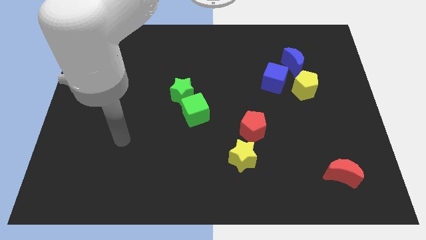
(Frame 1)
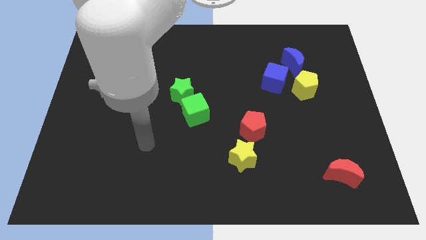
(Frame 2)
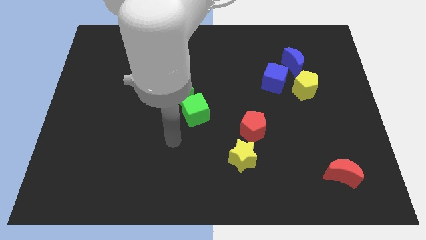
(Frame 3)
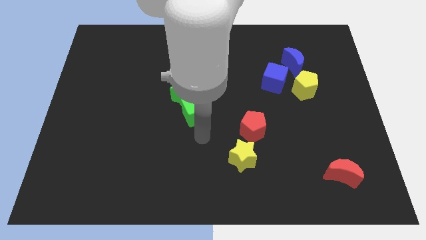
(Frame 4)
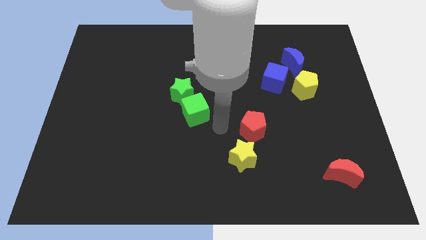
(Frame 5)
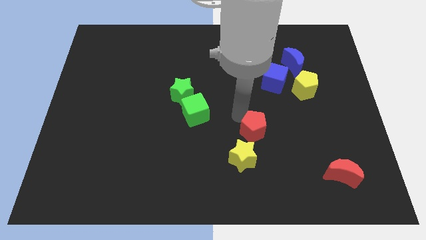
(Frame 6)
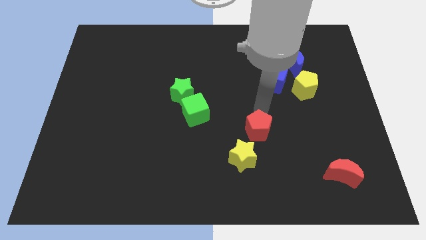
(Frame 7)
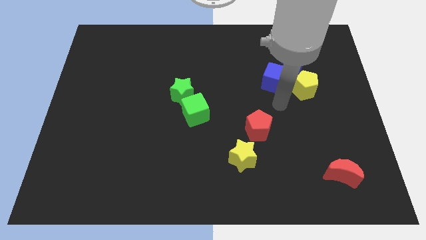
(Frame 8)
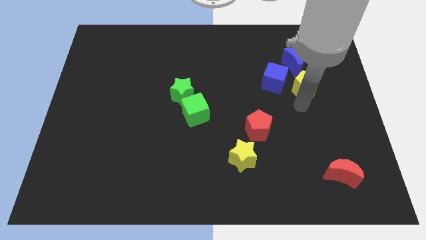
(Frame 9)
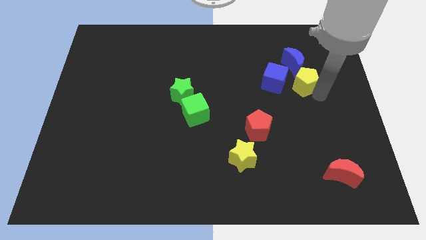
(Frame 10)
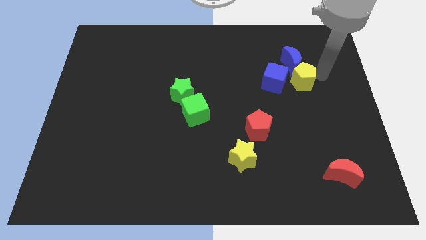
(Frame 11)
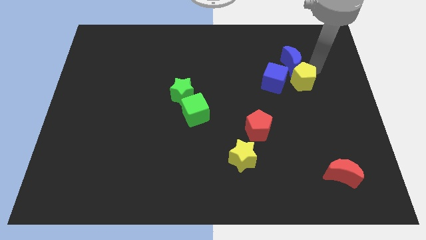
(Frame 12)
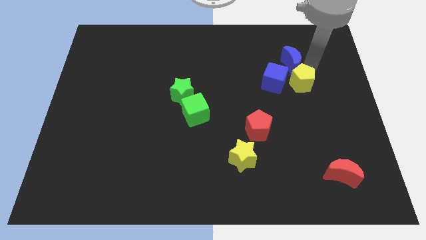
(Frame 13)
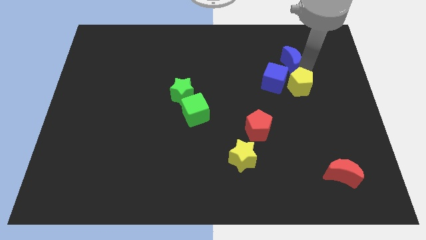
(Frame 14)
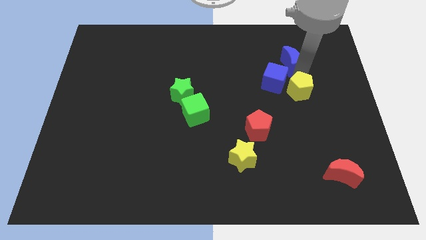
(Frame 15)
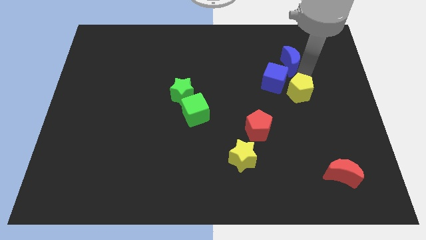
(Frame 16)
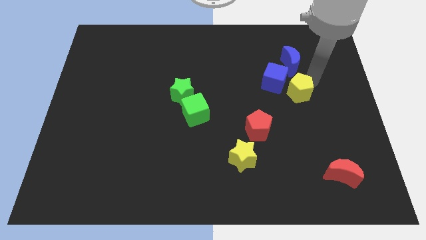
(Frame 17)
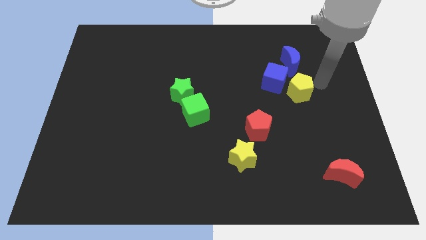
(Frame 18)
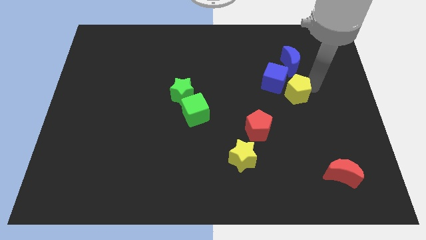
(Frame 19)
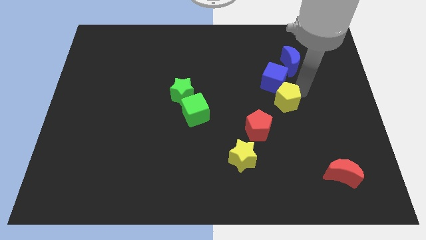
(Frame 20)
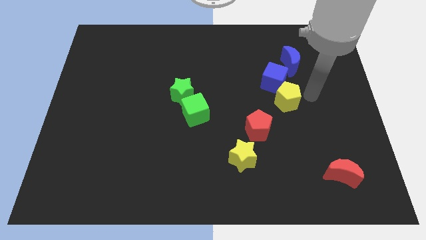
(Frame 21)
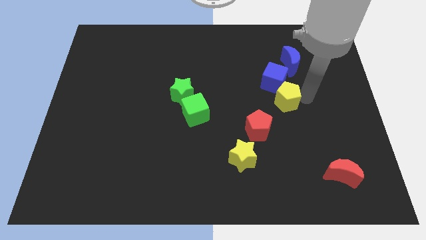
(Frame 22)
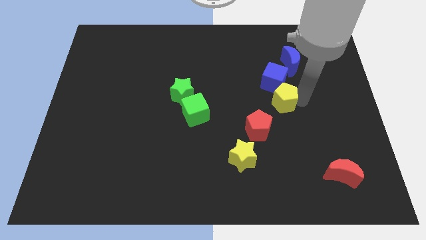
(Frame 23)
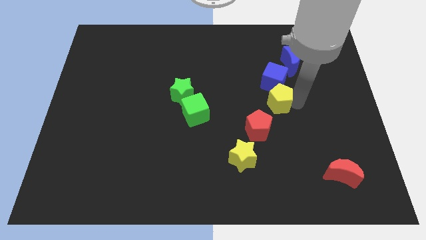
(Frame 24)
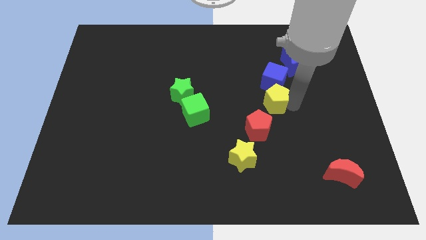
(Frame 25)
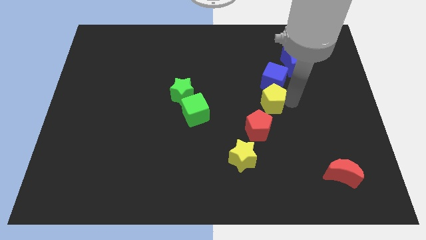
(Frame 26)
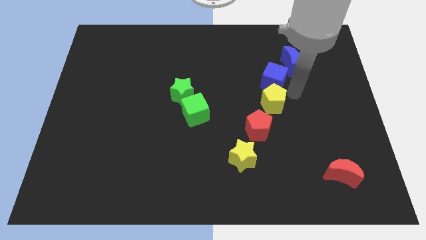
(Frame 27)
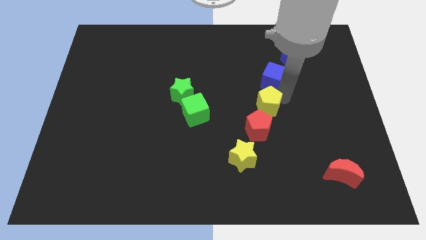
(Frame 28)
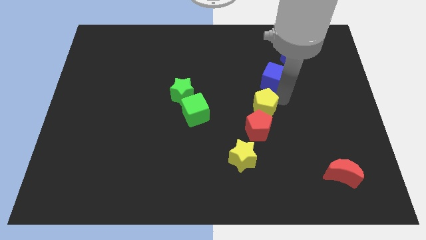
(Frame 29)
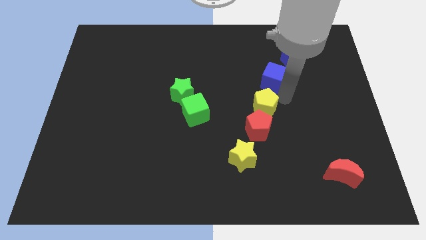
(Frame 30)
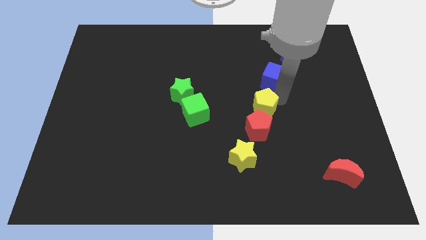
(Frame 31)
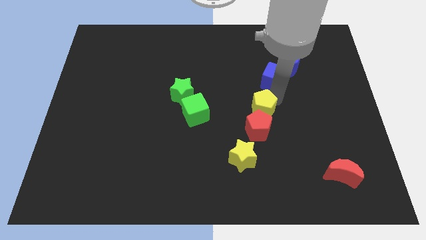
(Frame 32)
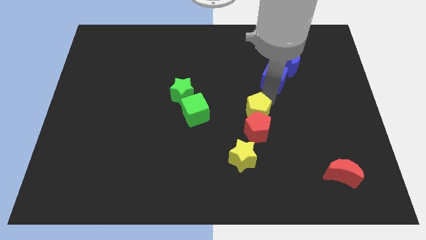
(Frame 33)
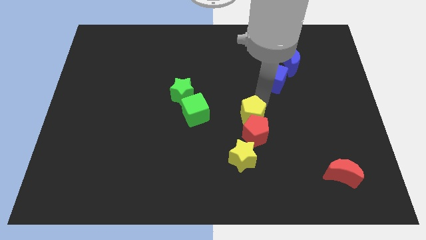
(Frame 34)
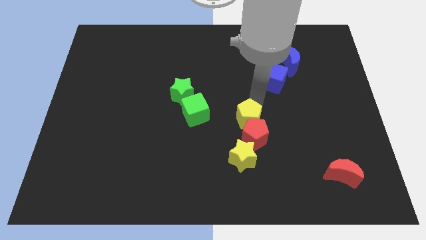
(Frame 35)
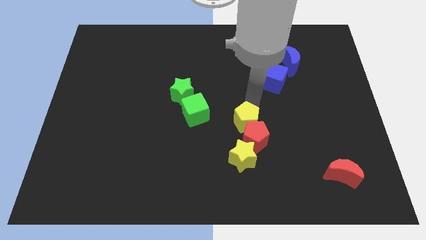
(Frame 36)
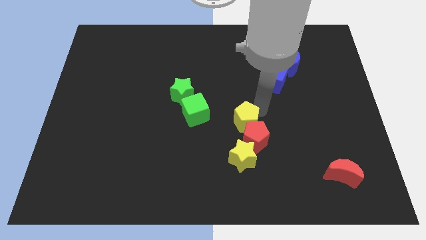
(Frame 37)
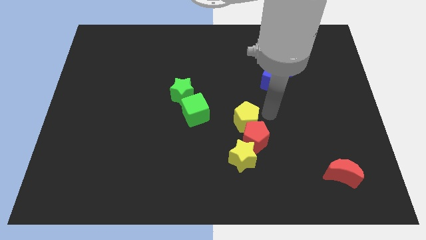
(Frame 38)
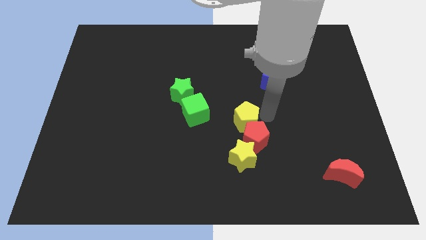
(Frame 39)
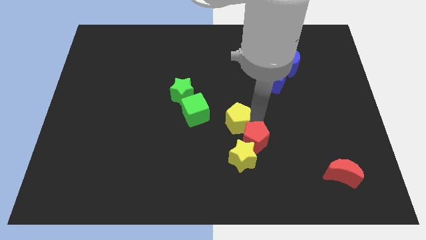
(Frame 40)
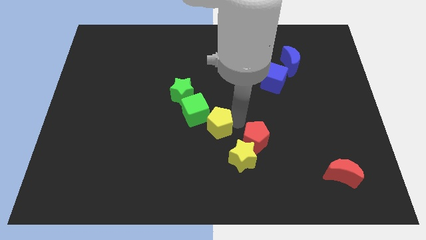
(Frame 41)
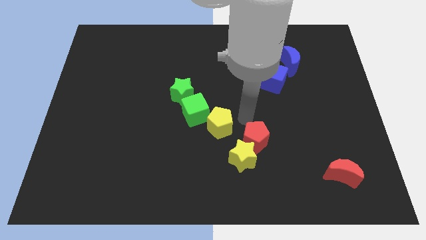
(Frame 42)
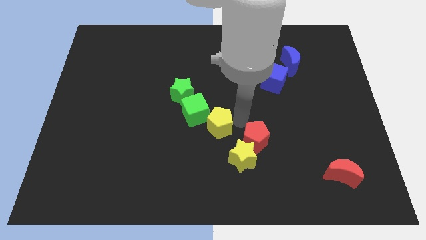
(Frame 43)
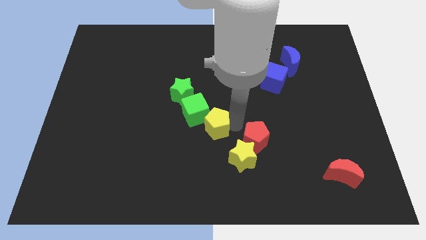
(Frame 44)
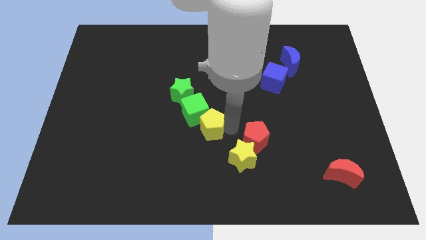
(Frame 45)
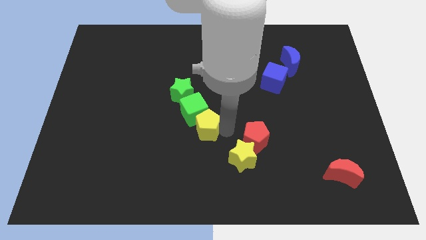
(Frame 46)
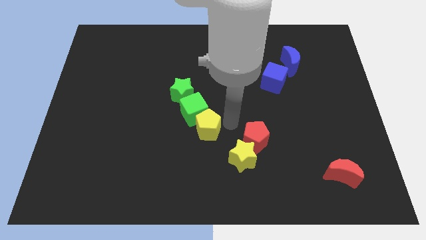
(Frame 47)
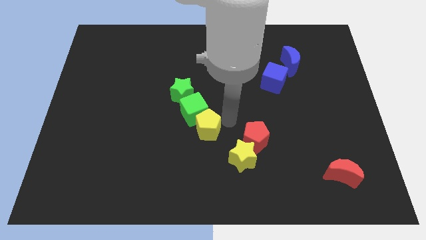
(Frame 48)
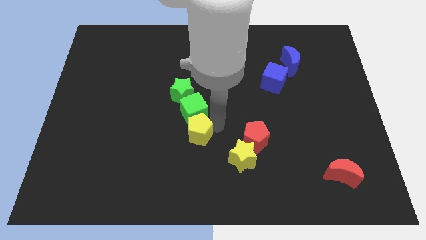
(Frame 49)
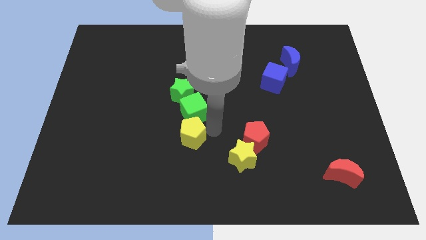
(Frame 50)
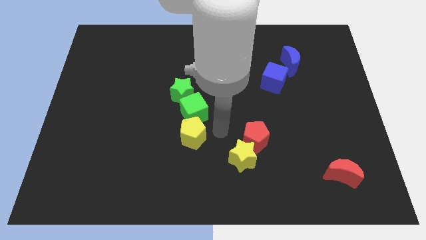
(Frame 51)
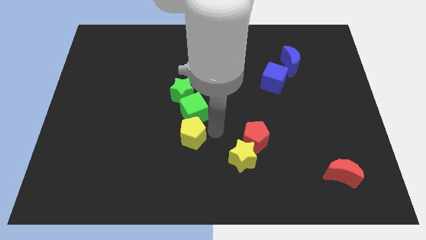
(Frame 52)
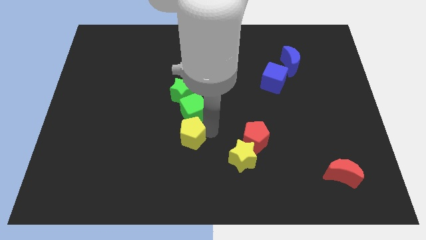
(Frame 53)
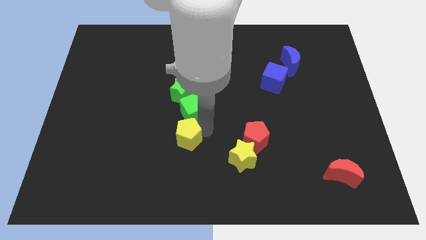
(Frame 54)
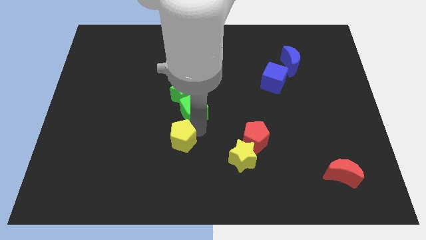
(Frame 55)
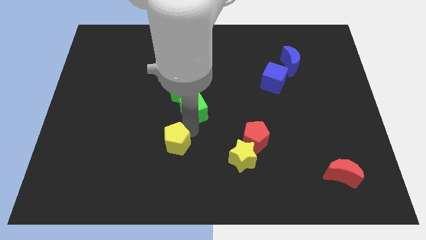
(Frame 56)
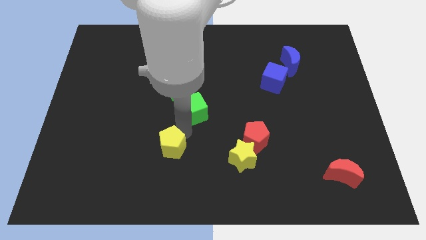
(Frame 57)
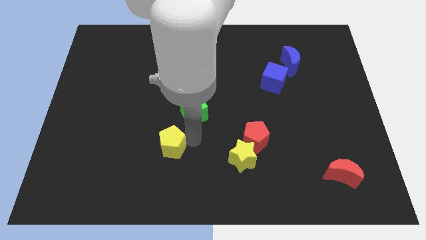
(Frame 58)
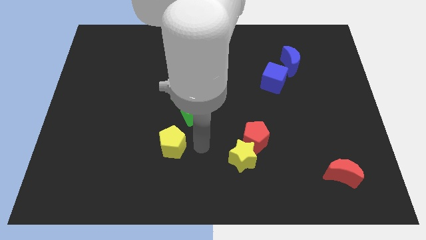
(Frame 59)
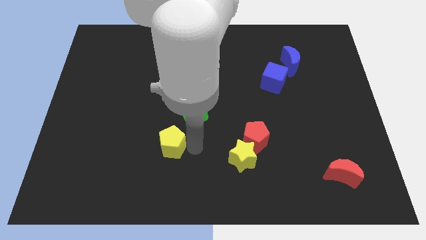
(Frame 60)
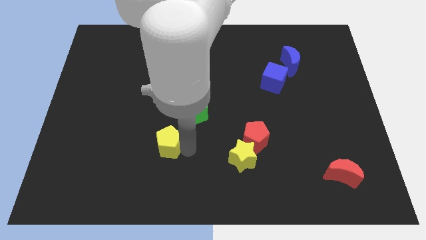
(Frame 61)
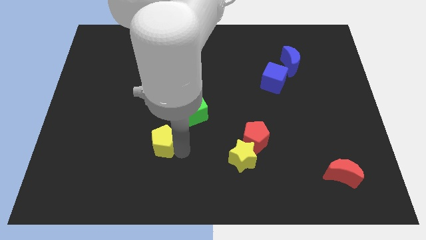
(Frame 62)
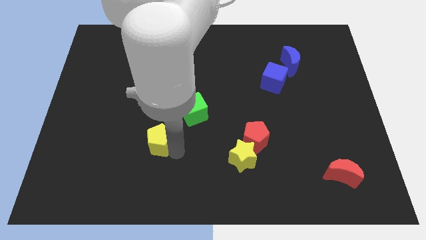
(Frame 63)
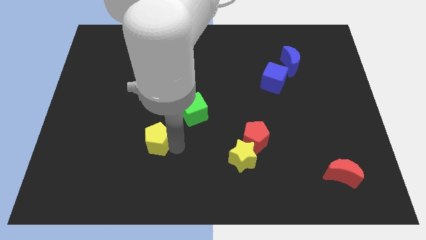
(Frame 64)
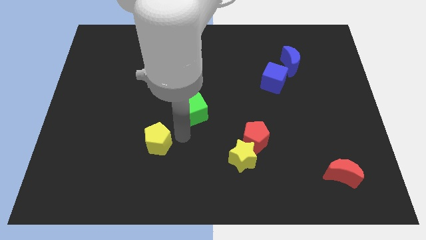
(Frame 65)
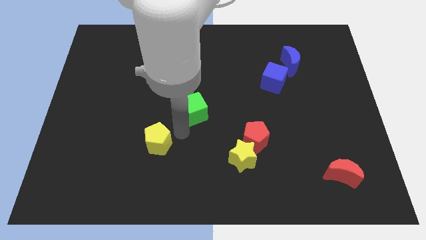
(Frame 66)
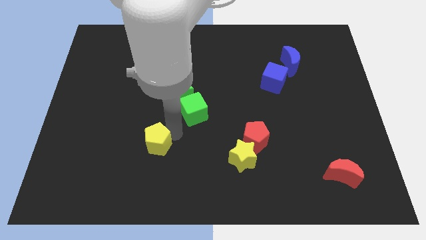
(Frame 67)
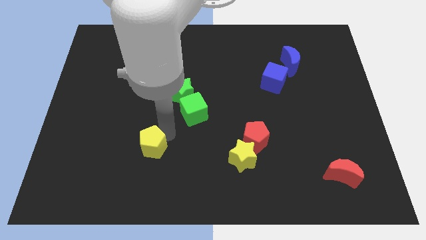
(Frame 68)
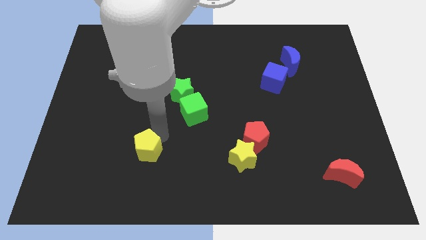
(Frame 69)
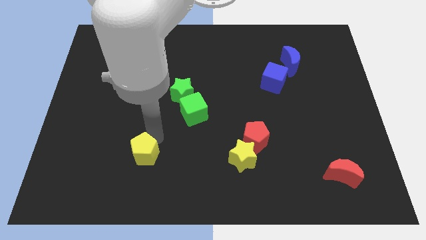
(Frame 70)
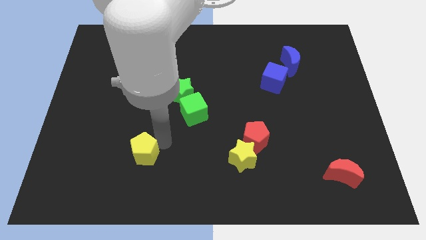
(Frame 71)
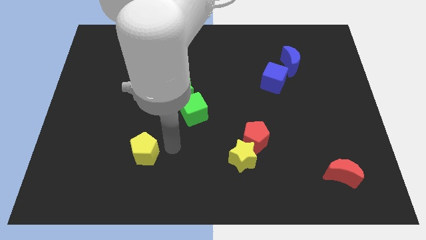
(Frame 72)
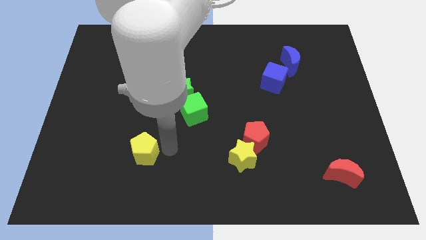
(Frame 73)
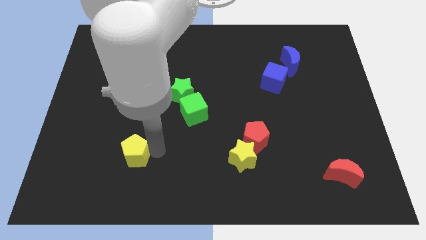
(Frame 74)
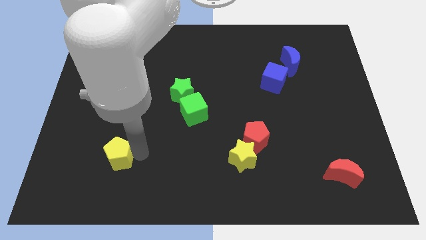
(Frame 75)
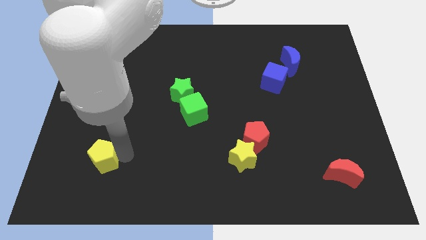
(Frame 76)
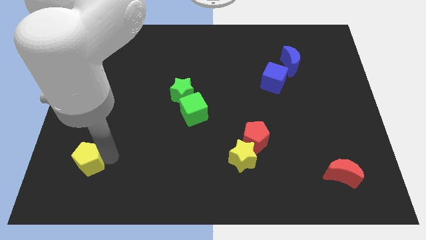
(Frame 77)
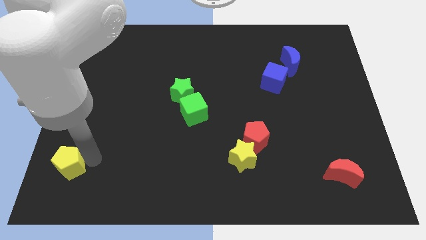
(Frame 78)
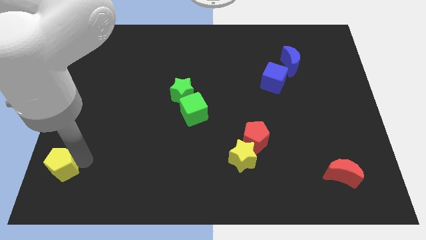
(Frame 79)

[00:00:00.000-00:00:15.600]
slide the yellow pentagon to the bottom left corner
